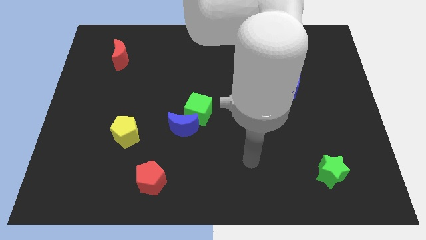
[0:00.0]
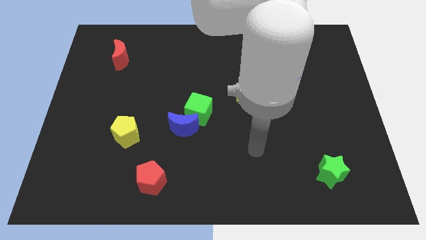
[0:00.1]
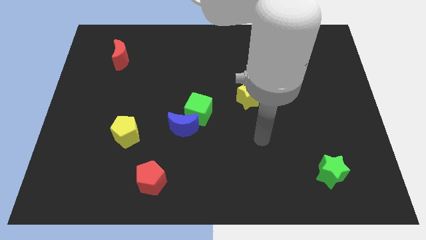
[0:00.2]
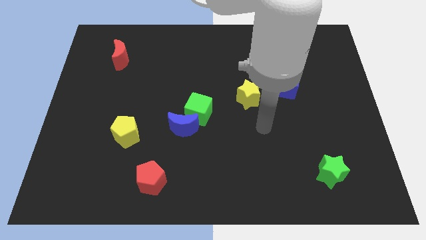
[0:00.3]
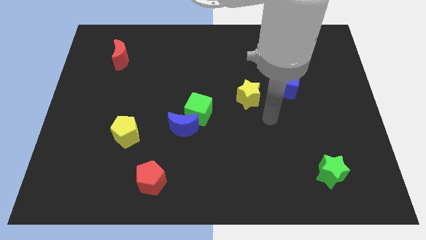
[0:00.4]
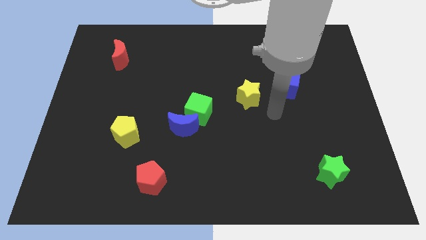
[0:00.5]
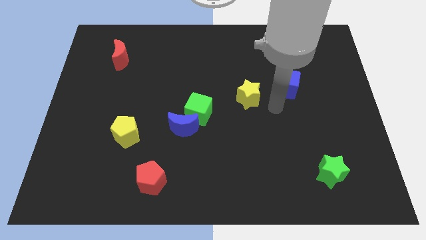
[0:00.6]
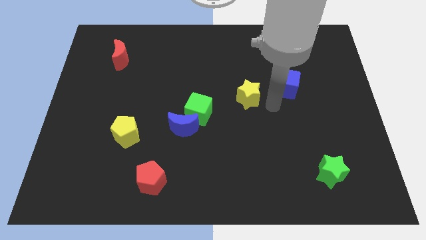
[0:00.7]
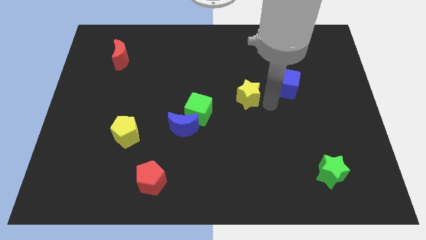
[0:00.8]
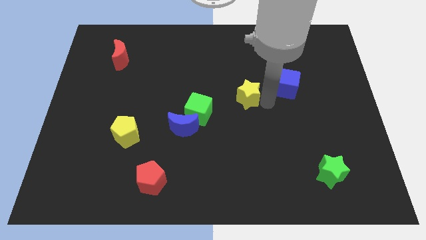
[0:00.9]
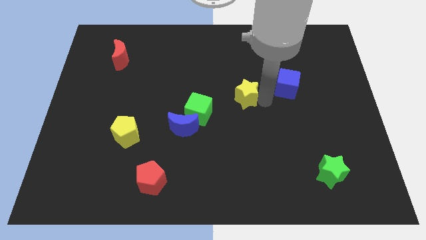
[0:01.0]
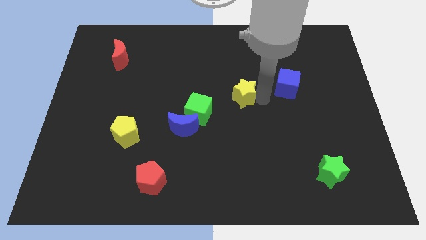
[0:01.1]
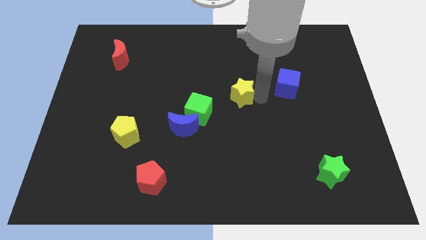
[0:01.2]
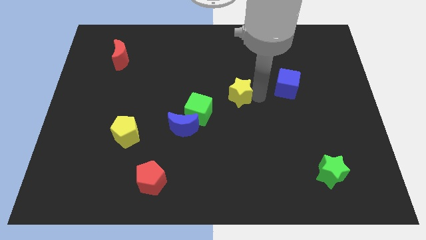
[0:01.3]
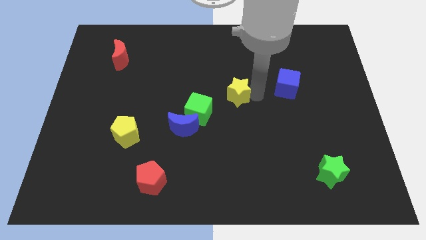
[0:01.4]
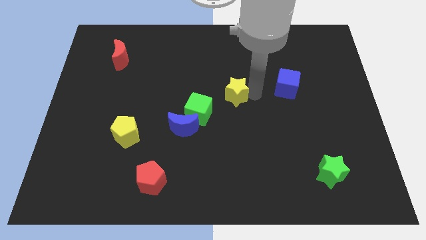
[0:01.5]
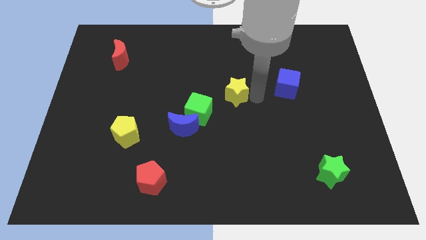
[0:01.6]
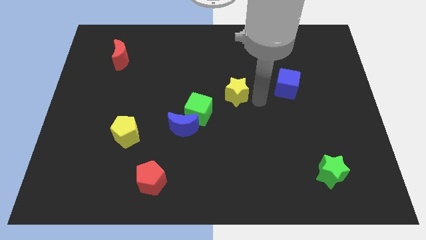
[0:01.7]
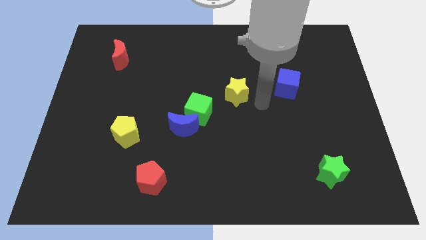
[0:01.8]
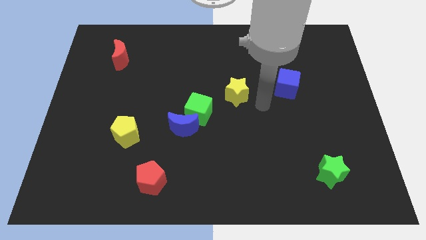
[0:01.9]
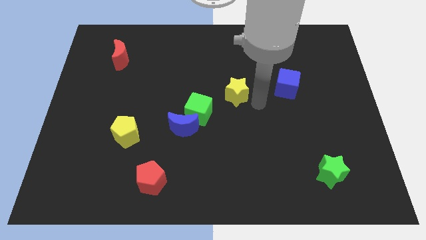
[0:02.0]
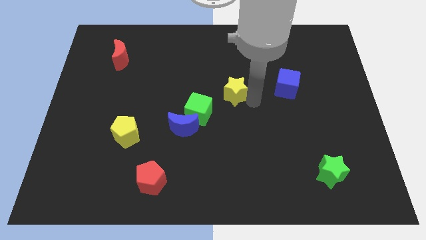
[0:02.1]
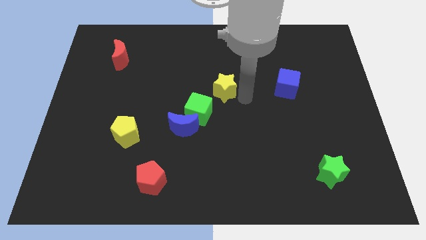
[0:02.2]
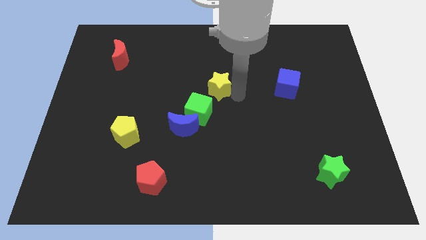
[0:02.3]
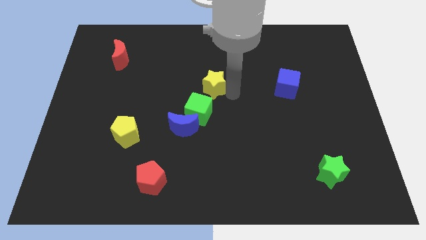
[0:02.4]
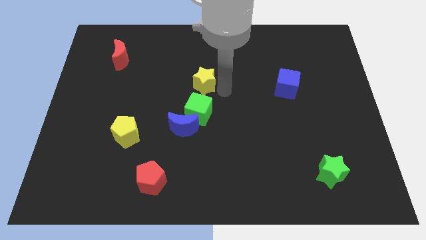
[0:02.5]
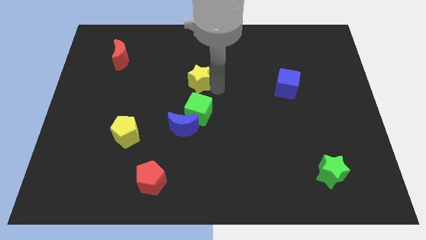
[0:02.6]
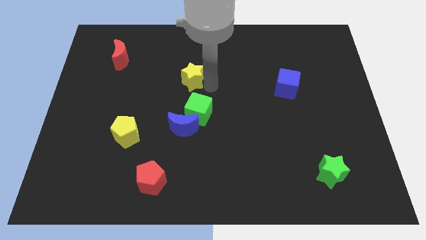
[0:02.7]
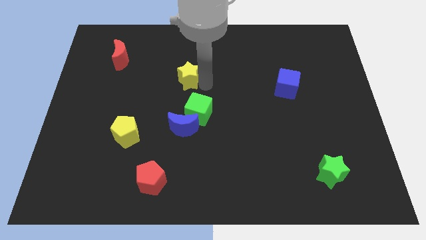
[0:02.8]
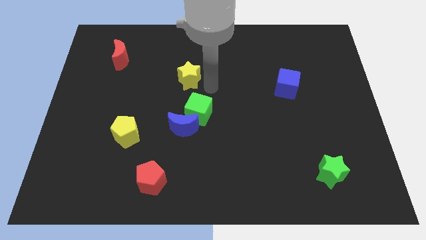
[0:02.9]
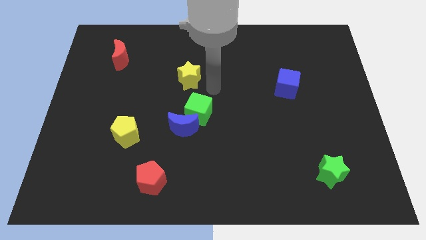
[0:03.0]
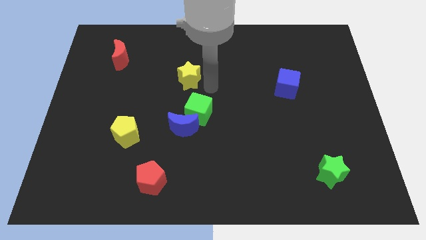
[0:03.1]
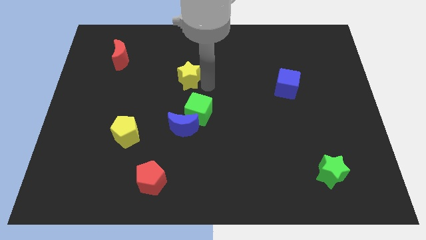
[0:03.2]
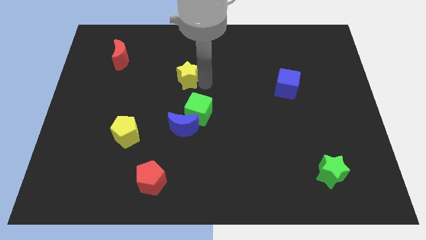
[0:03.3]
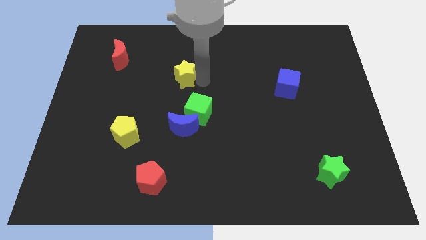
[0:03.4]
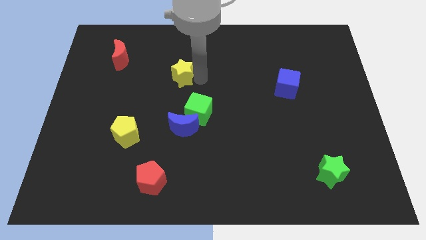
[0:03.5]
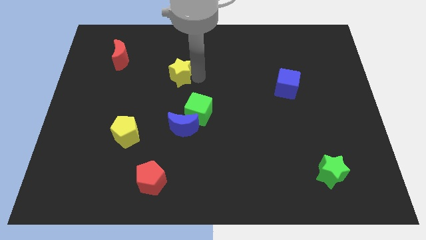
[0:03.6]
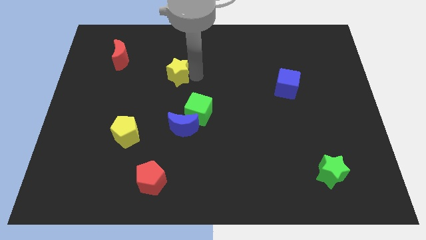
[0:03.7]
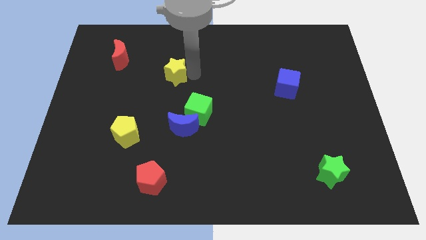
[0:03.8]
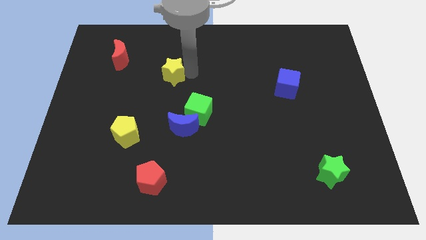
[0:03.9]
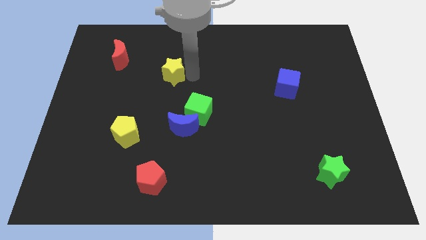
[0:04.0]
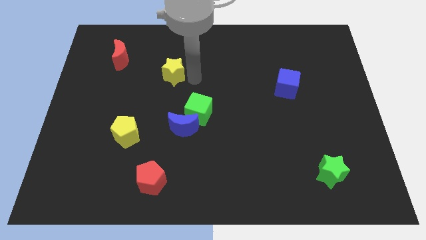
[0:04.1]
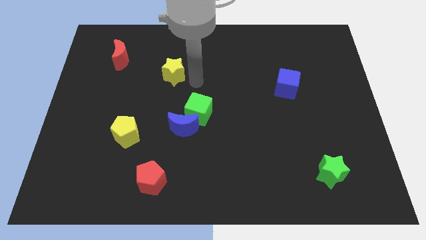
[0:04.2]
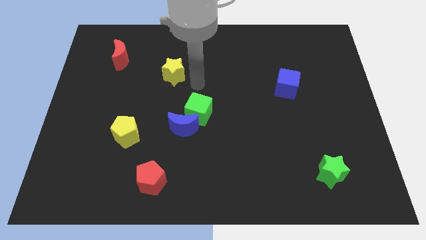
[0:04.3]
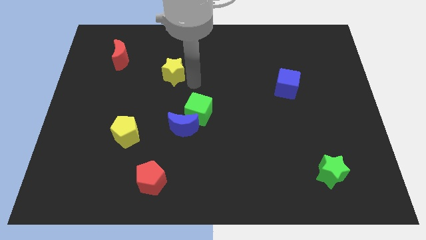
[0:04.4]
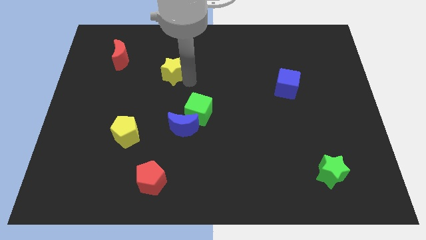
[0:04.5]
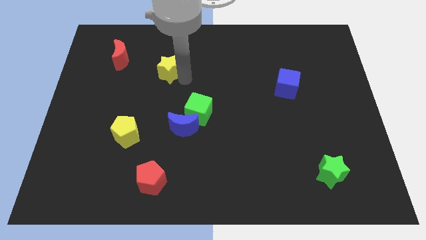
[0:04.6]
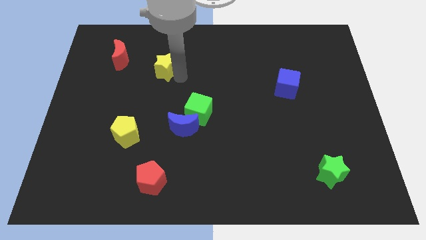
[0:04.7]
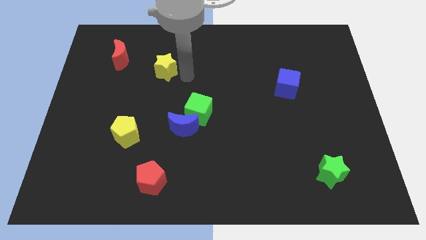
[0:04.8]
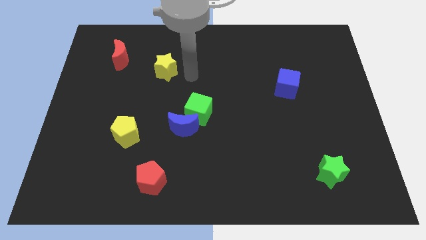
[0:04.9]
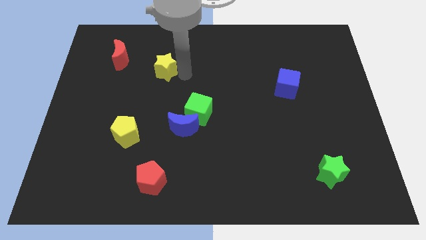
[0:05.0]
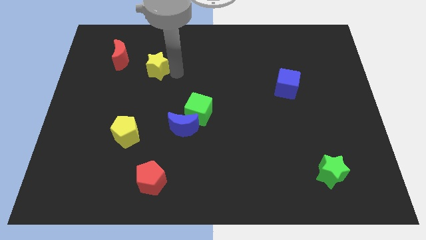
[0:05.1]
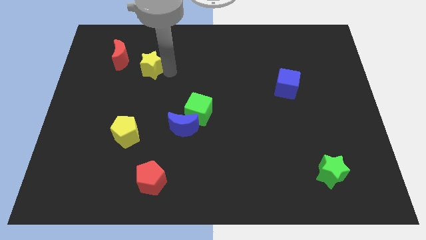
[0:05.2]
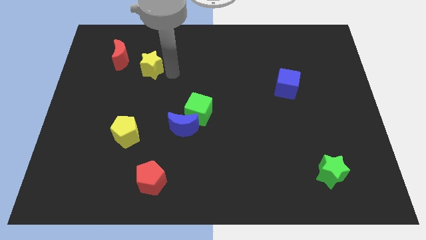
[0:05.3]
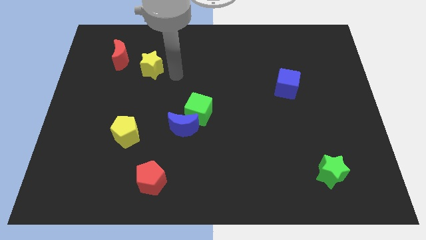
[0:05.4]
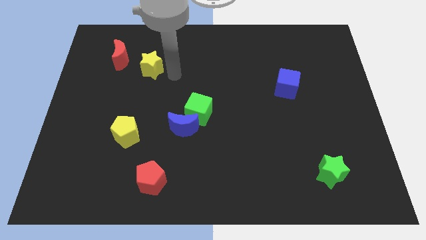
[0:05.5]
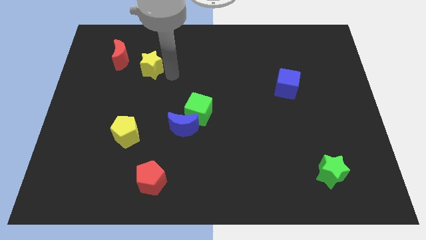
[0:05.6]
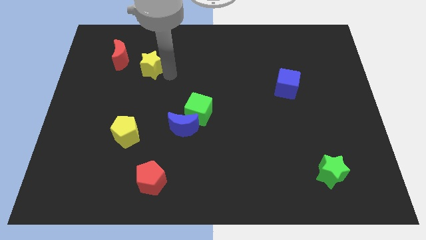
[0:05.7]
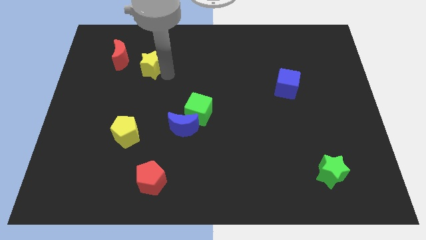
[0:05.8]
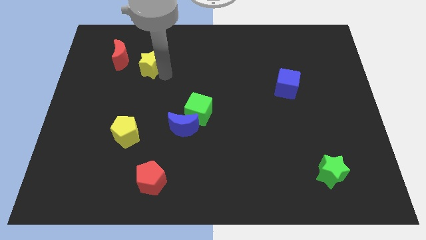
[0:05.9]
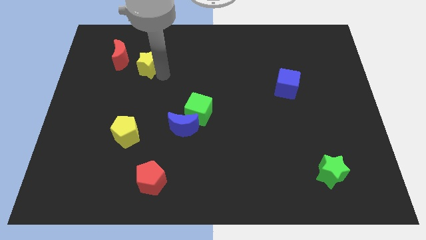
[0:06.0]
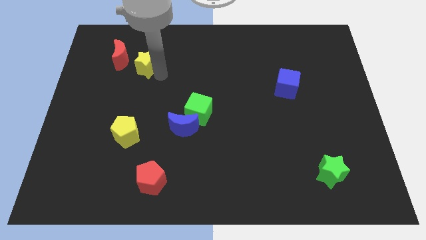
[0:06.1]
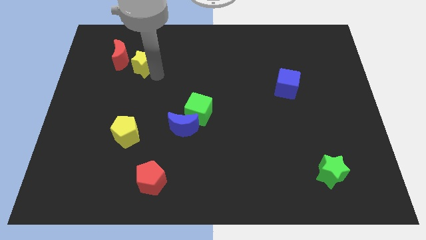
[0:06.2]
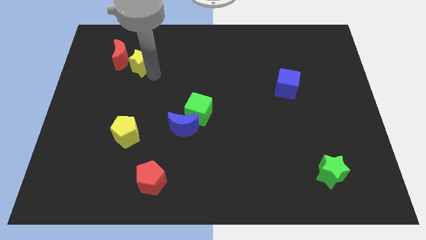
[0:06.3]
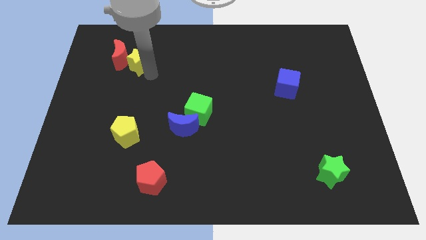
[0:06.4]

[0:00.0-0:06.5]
put the yellow star towards the red moon

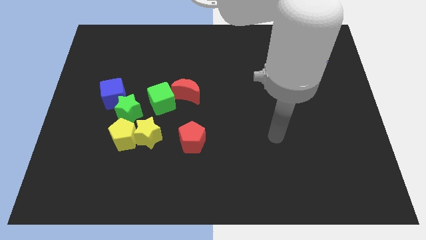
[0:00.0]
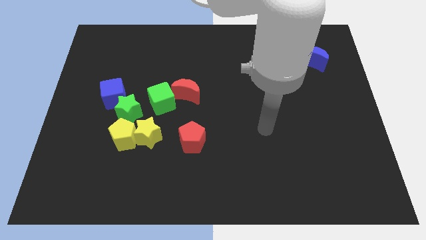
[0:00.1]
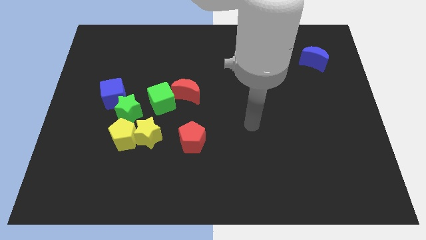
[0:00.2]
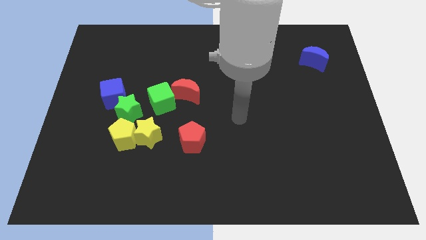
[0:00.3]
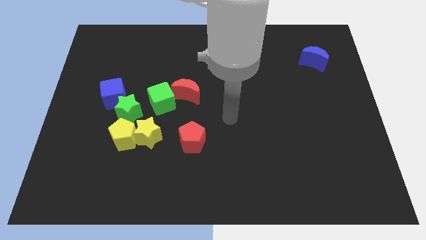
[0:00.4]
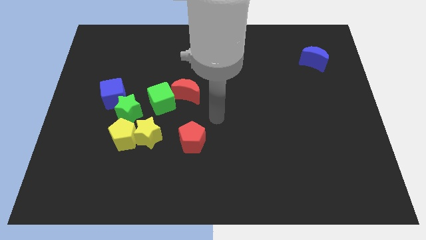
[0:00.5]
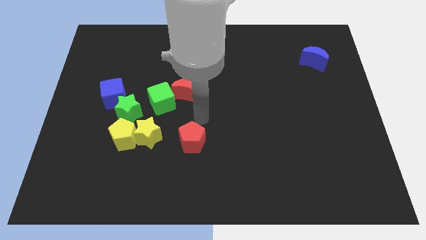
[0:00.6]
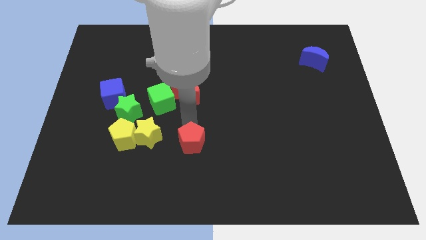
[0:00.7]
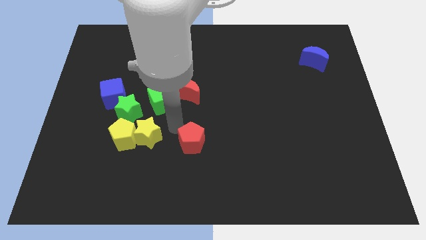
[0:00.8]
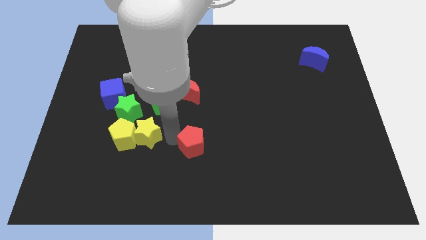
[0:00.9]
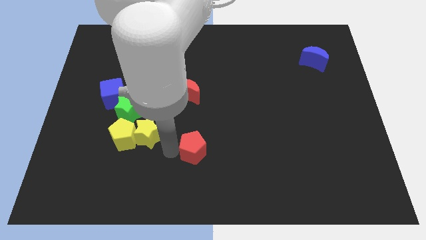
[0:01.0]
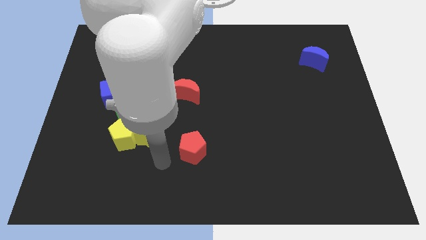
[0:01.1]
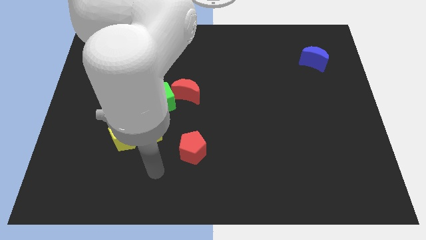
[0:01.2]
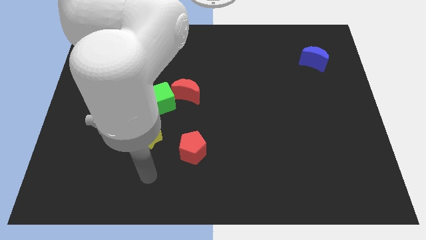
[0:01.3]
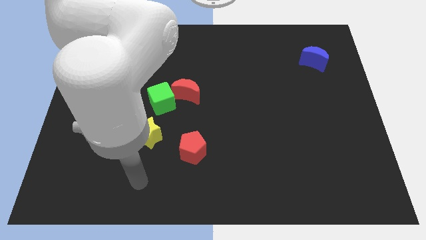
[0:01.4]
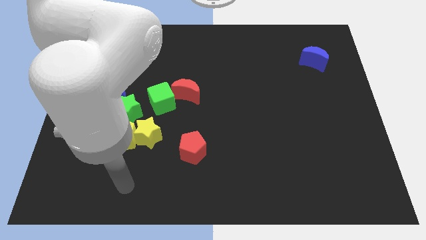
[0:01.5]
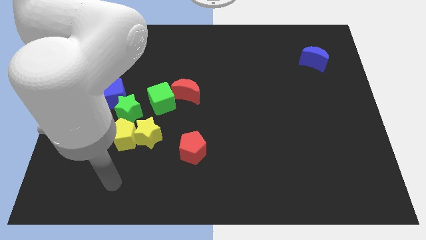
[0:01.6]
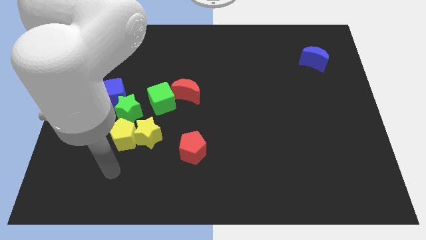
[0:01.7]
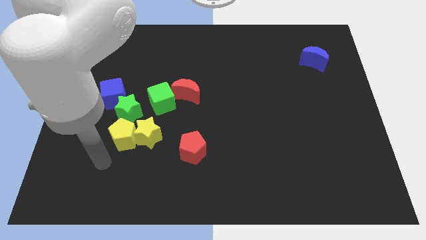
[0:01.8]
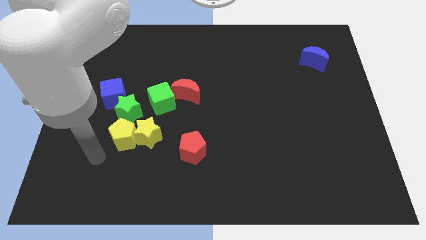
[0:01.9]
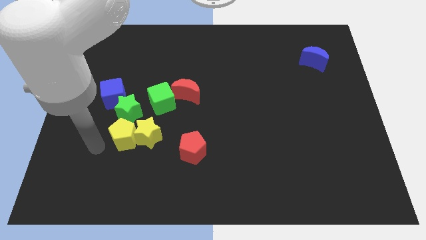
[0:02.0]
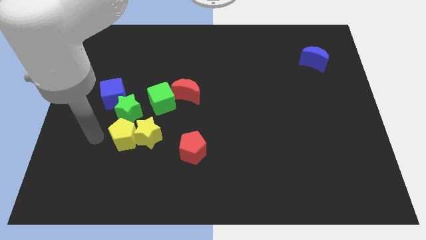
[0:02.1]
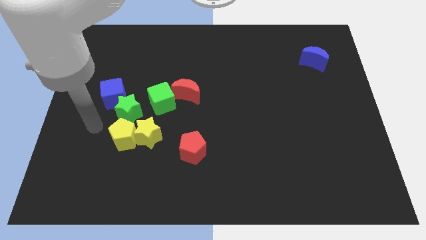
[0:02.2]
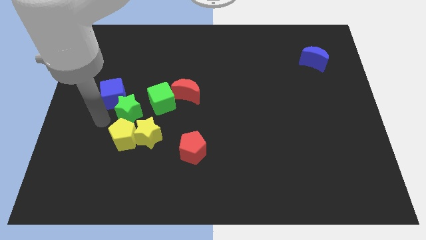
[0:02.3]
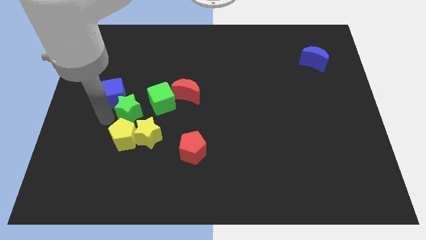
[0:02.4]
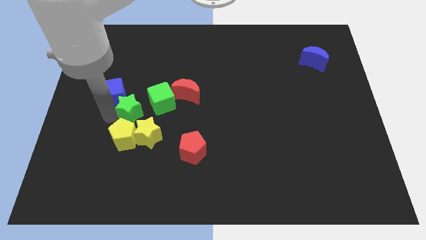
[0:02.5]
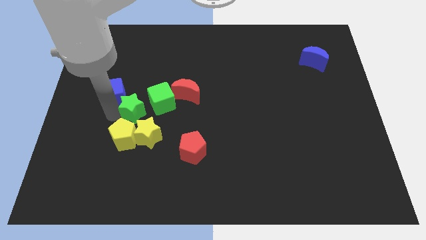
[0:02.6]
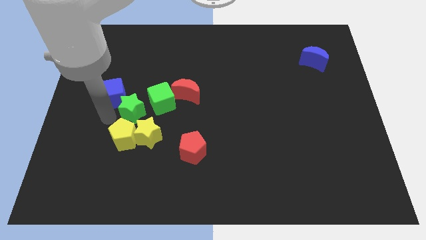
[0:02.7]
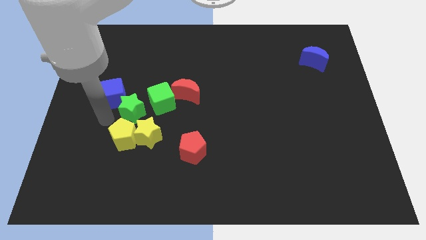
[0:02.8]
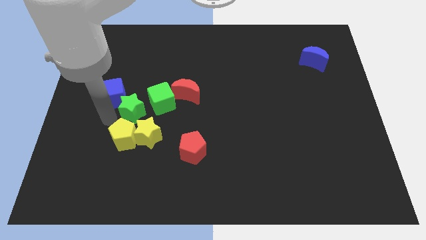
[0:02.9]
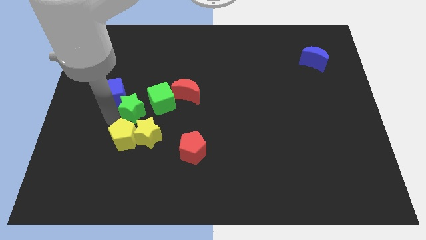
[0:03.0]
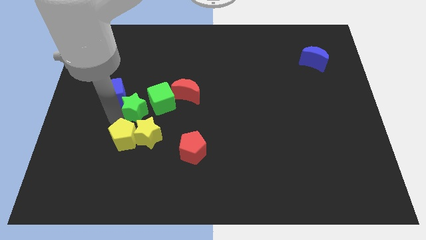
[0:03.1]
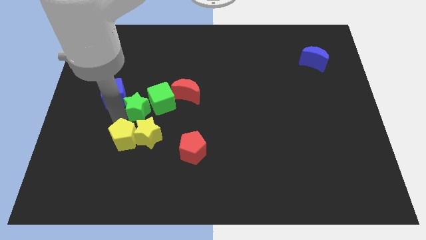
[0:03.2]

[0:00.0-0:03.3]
put the green star next to the green cube
